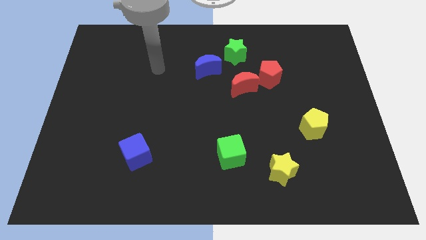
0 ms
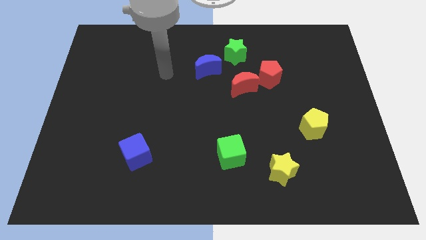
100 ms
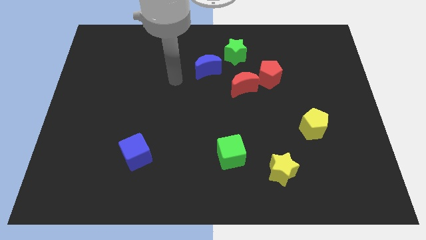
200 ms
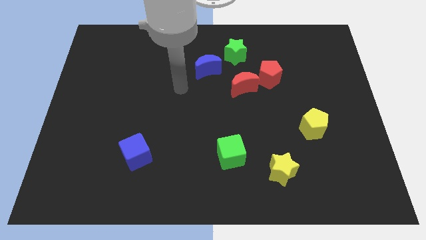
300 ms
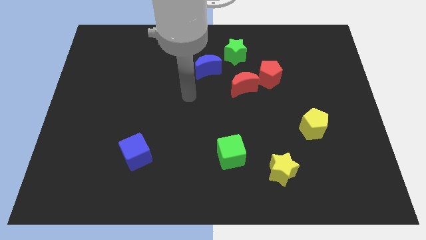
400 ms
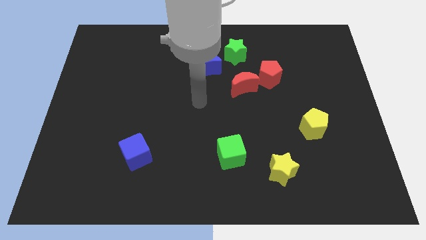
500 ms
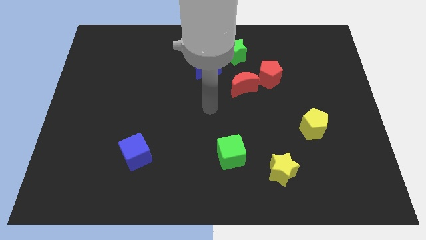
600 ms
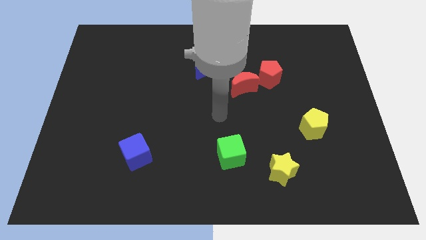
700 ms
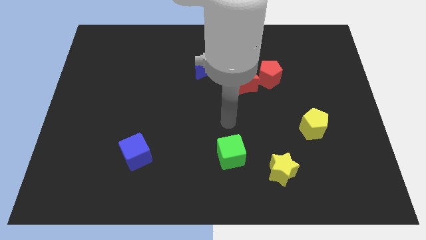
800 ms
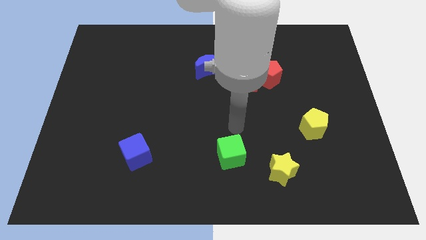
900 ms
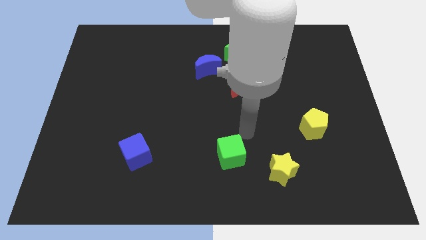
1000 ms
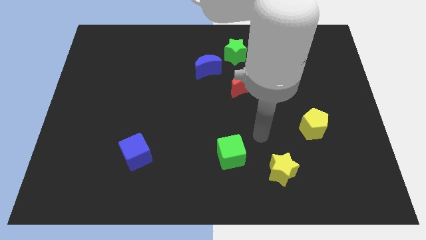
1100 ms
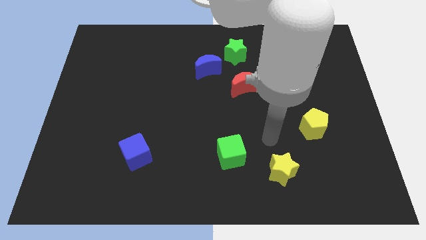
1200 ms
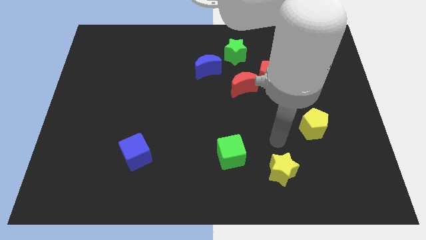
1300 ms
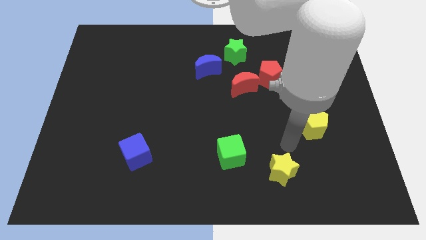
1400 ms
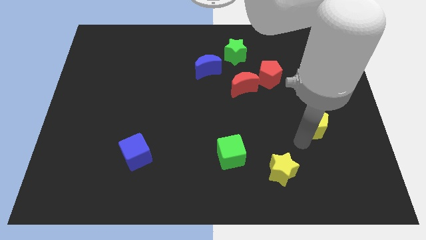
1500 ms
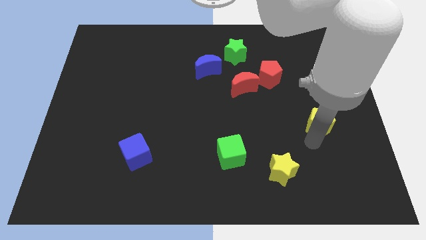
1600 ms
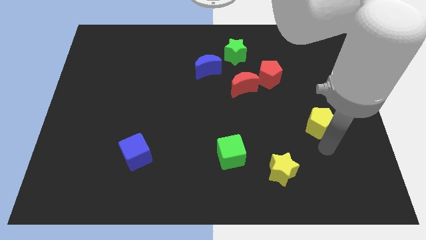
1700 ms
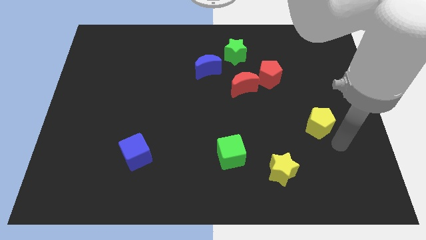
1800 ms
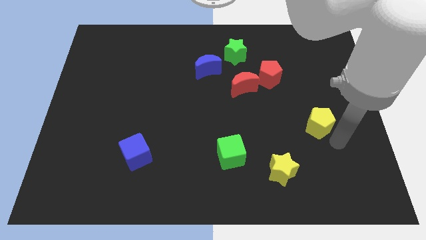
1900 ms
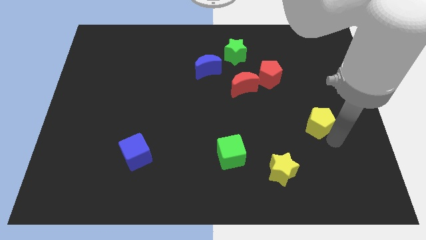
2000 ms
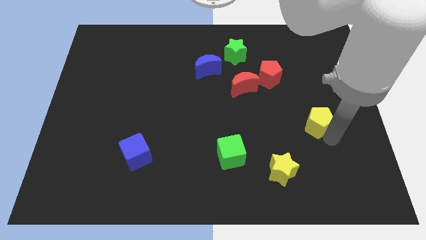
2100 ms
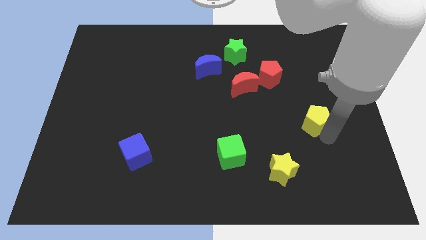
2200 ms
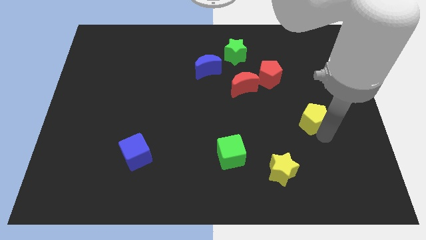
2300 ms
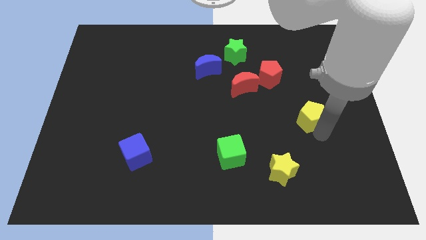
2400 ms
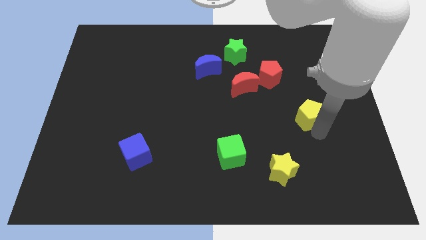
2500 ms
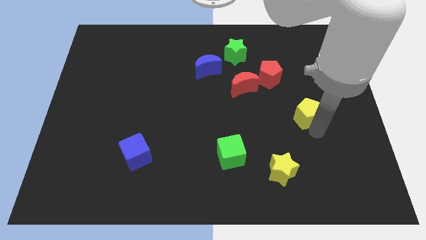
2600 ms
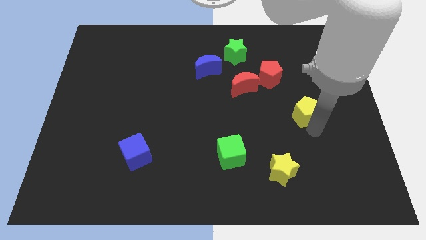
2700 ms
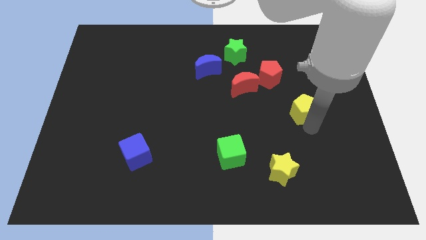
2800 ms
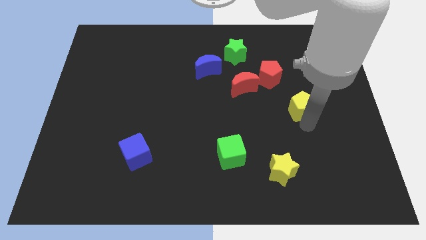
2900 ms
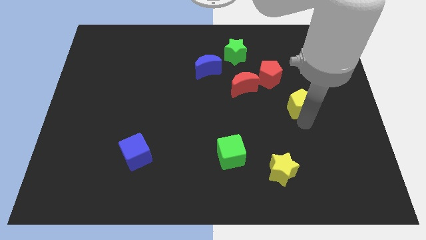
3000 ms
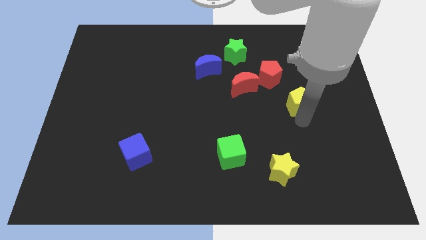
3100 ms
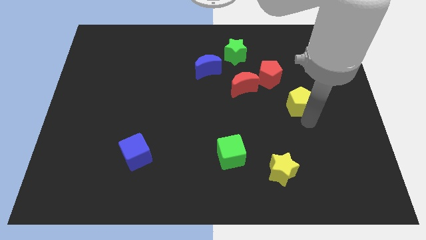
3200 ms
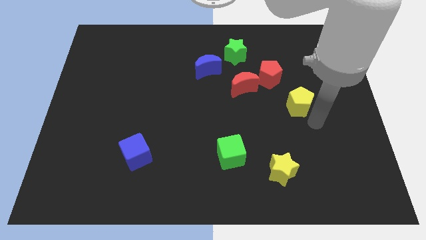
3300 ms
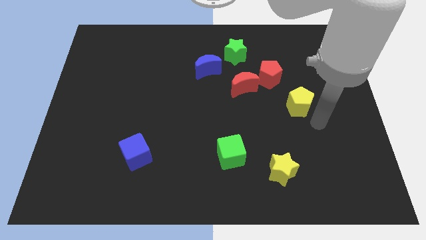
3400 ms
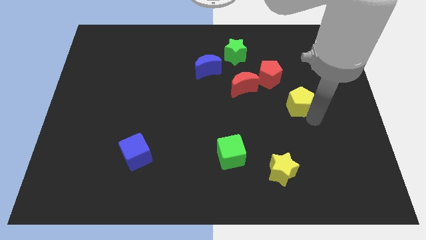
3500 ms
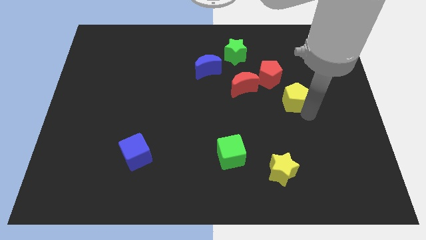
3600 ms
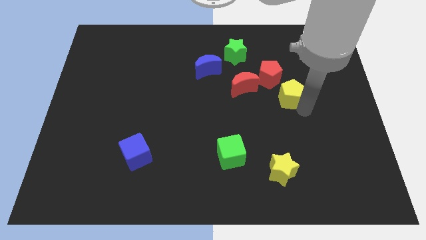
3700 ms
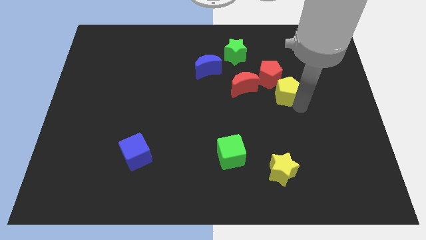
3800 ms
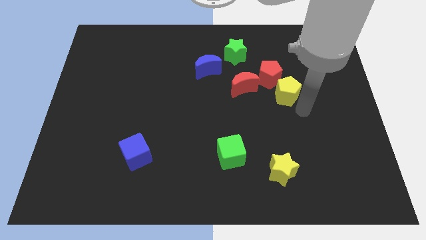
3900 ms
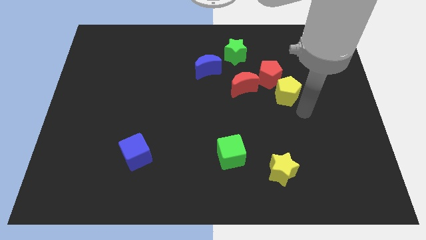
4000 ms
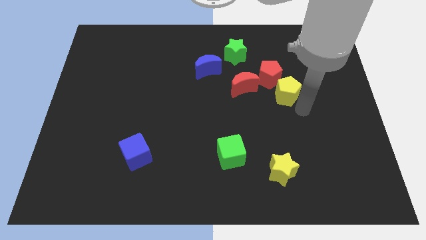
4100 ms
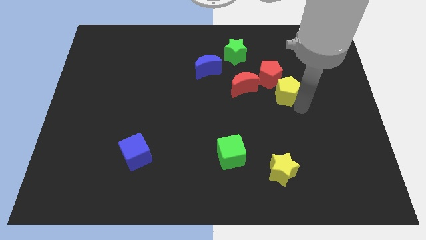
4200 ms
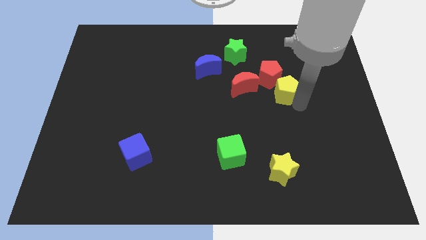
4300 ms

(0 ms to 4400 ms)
move the yellow pentagon next to the red pentagon

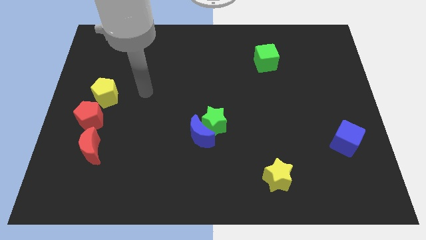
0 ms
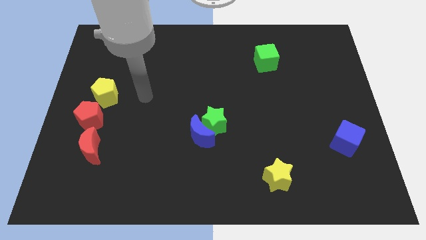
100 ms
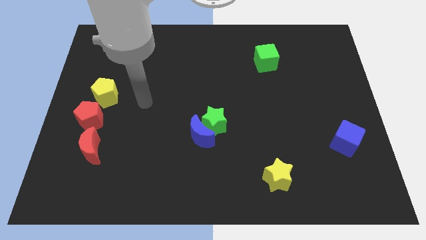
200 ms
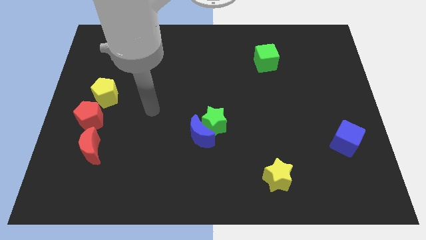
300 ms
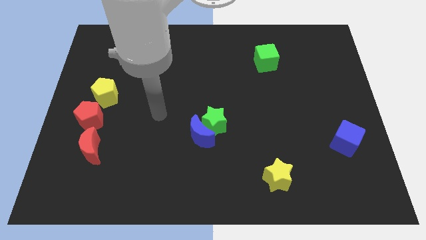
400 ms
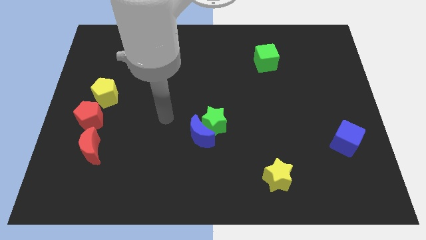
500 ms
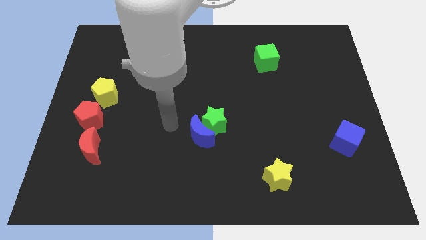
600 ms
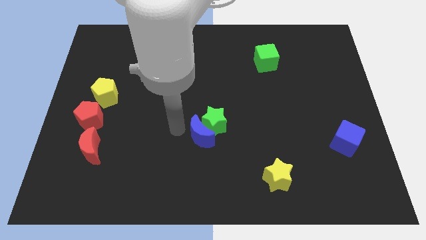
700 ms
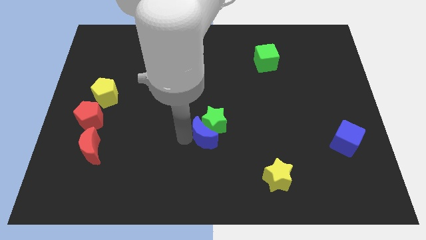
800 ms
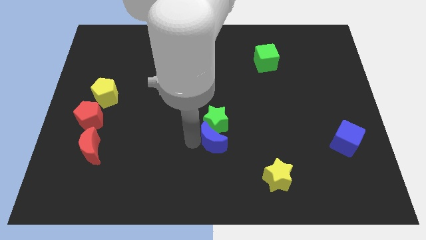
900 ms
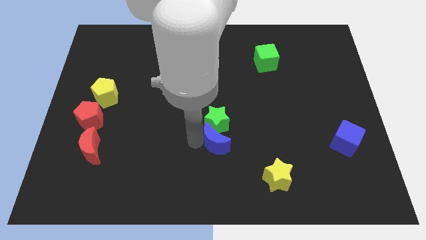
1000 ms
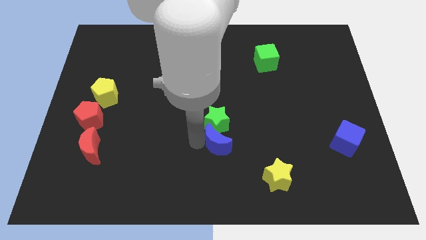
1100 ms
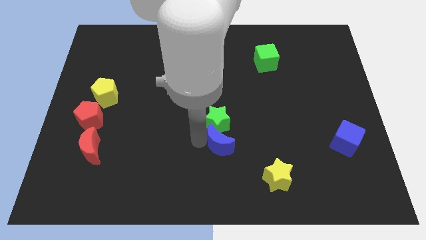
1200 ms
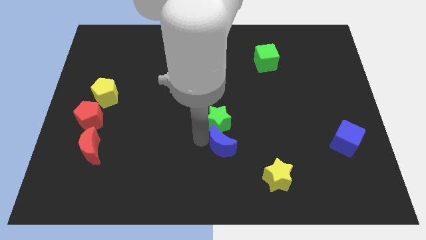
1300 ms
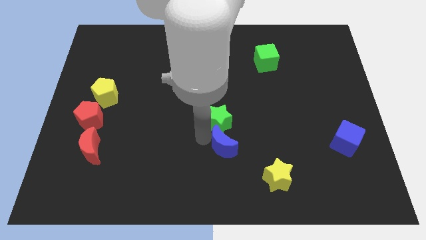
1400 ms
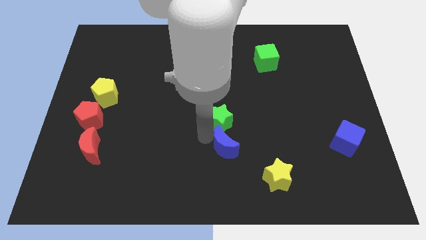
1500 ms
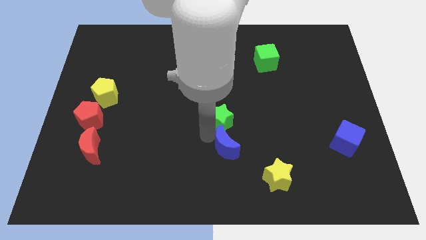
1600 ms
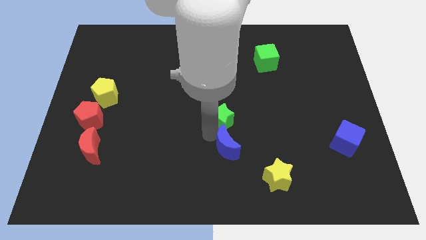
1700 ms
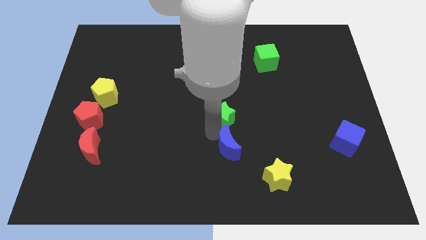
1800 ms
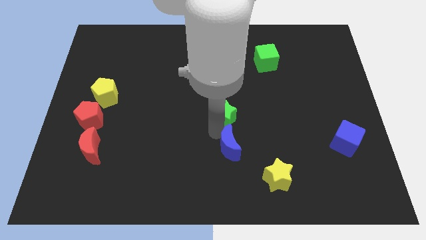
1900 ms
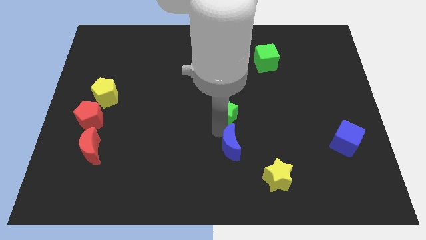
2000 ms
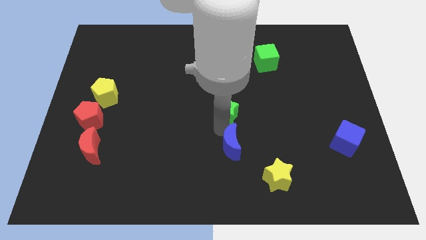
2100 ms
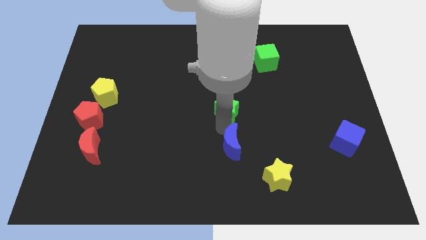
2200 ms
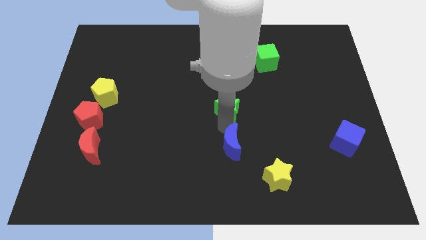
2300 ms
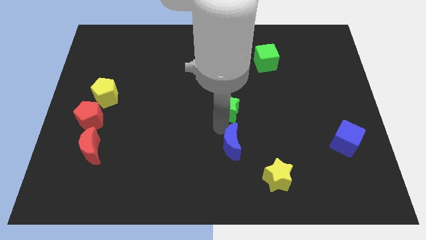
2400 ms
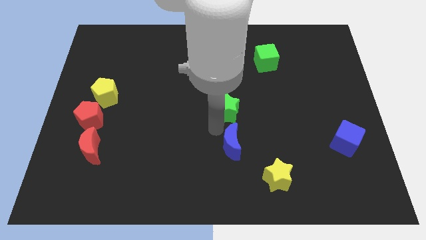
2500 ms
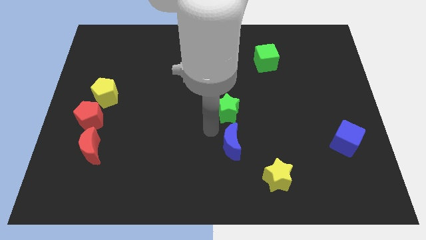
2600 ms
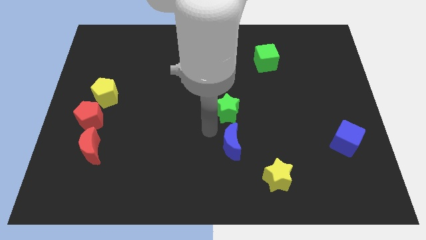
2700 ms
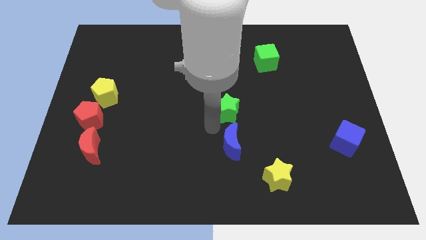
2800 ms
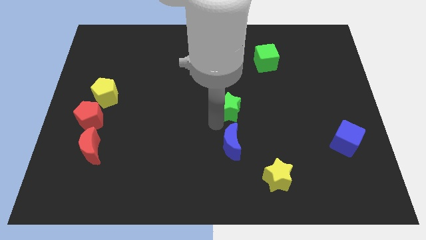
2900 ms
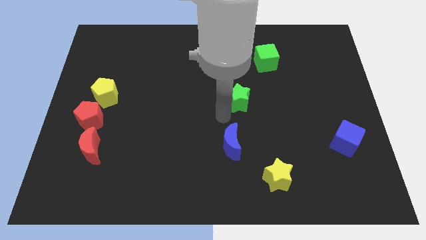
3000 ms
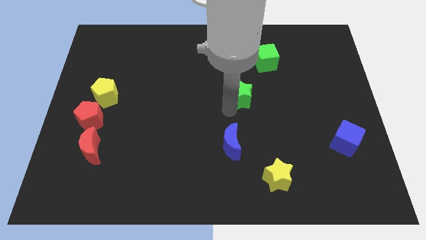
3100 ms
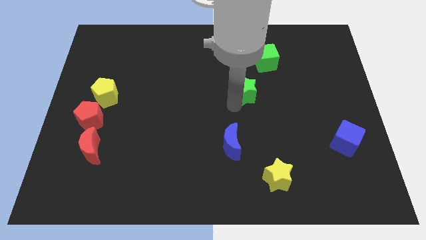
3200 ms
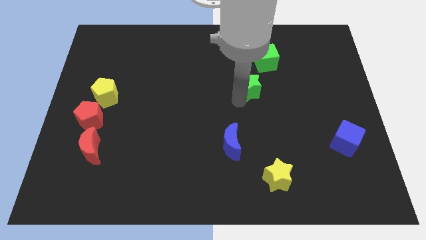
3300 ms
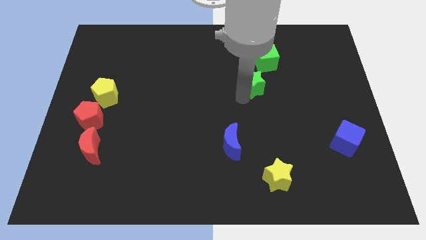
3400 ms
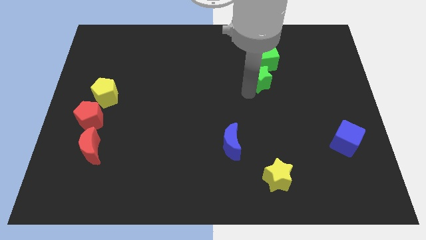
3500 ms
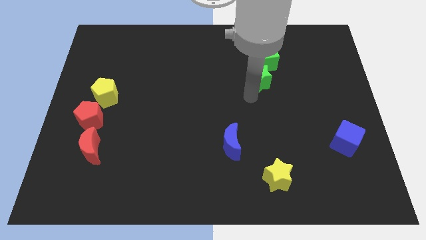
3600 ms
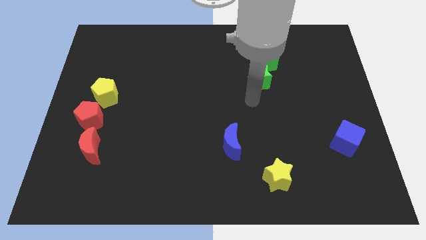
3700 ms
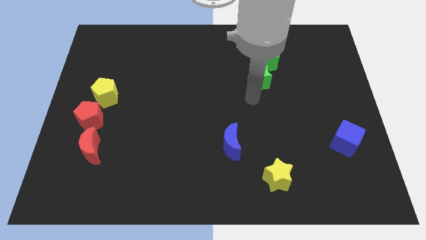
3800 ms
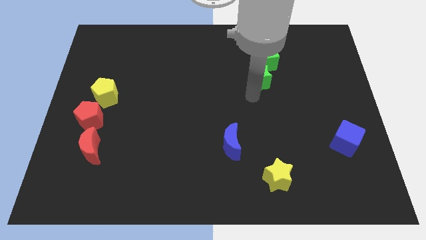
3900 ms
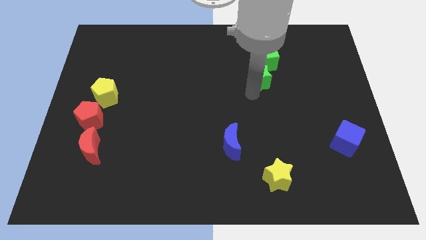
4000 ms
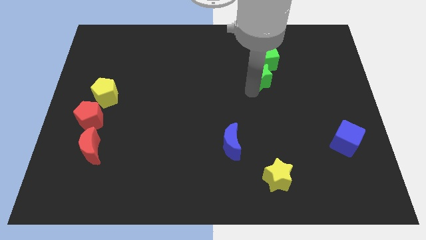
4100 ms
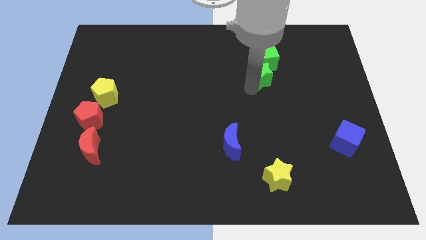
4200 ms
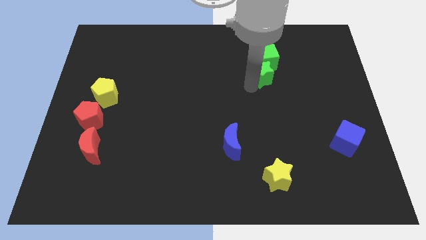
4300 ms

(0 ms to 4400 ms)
push the green star towards the green cube
